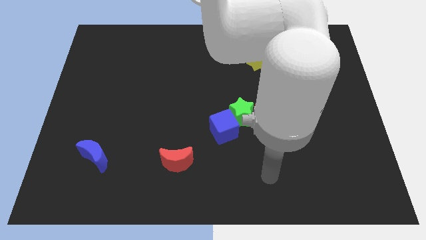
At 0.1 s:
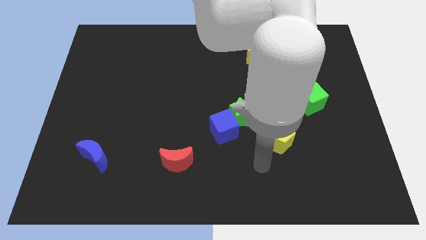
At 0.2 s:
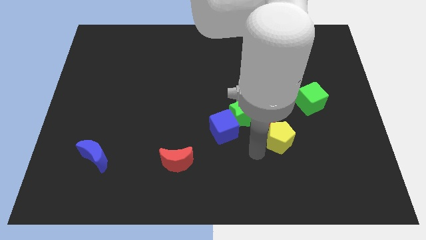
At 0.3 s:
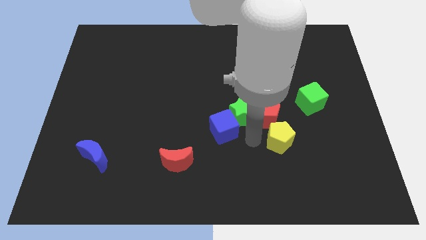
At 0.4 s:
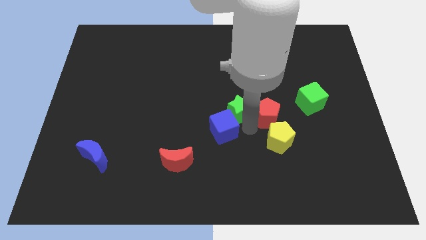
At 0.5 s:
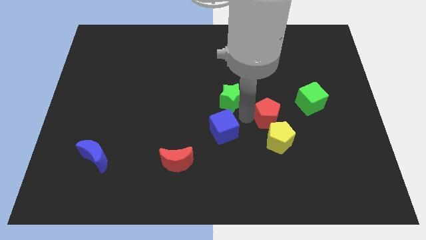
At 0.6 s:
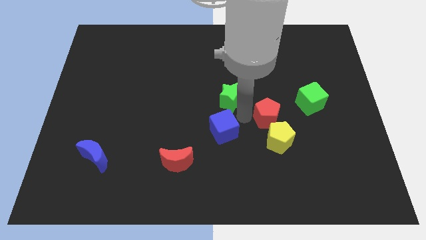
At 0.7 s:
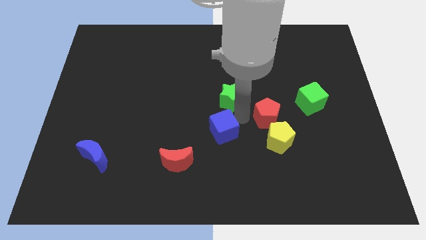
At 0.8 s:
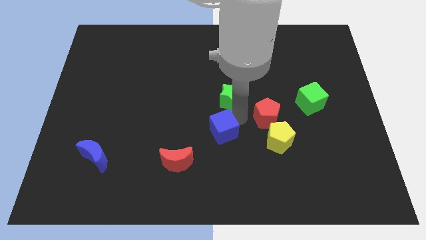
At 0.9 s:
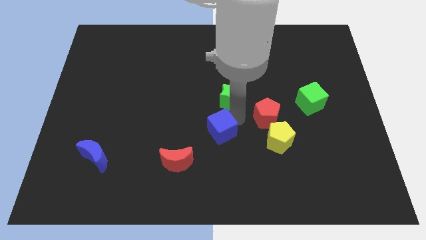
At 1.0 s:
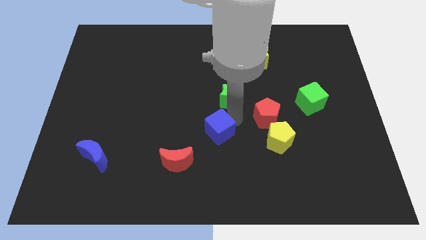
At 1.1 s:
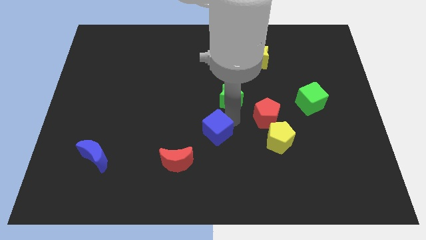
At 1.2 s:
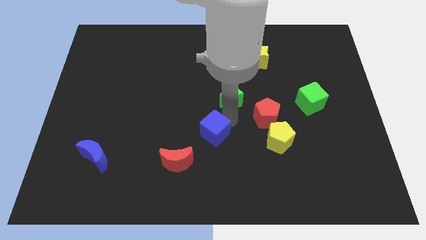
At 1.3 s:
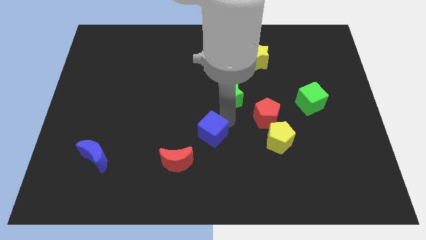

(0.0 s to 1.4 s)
pull the blue cube apart from the green star

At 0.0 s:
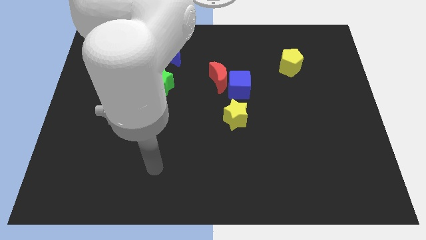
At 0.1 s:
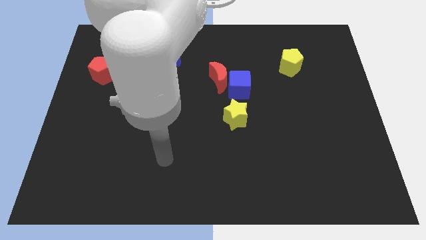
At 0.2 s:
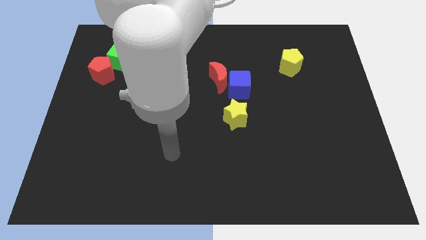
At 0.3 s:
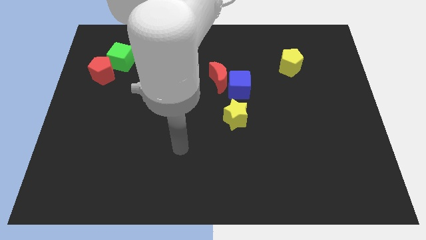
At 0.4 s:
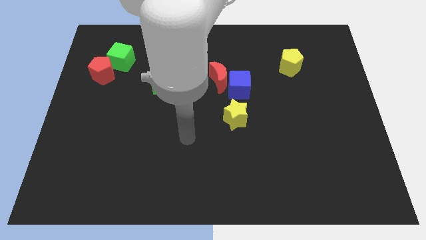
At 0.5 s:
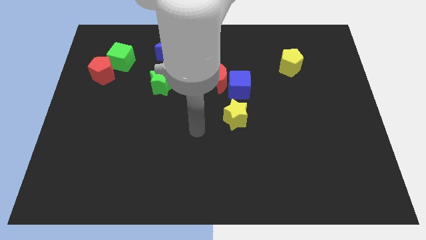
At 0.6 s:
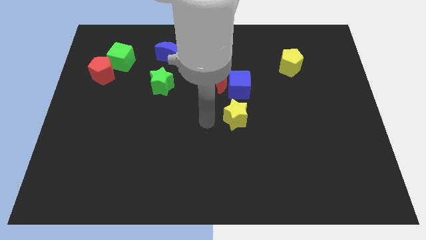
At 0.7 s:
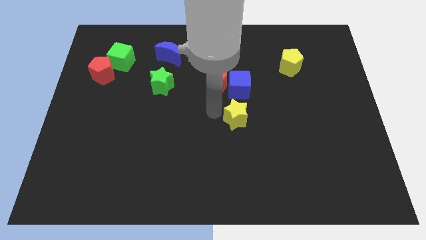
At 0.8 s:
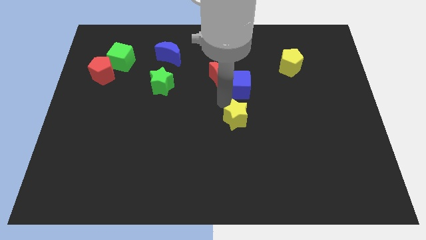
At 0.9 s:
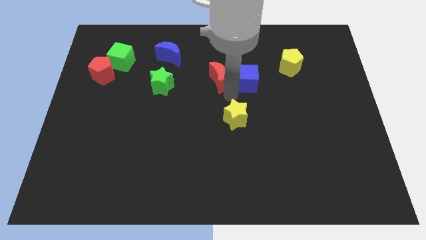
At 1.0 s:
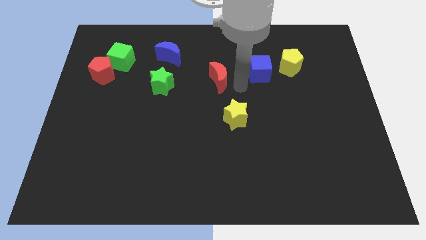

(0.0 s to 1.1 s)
pull the red moon apart from the blue cube

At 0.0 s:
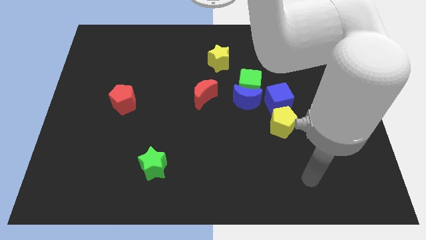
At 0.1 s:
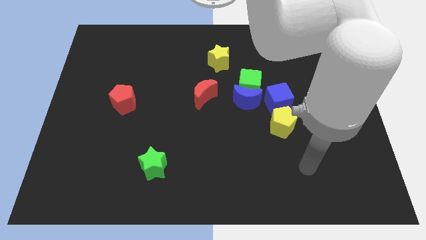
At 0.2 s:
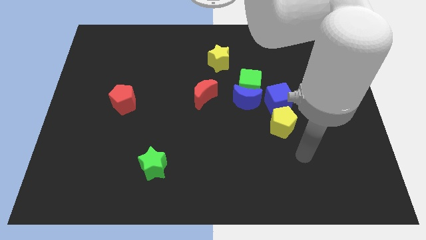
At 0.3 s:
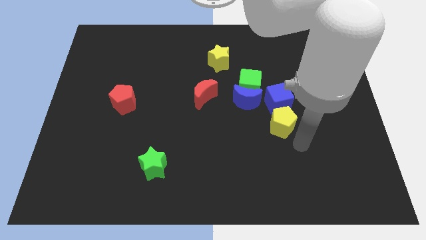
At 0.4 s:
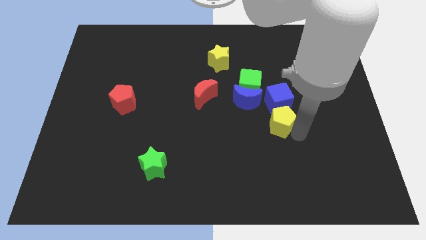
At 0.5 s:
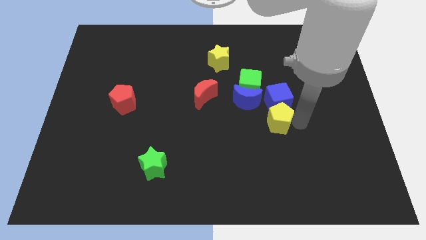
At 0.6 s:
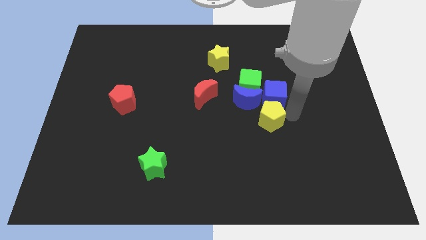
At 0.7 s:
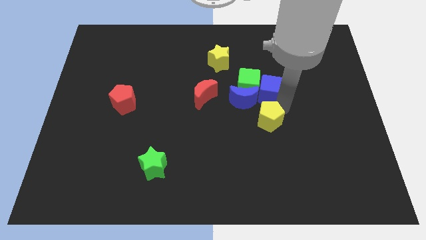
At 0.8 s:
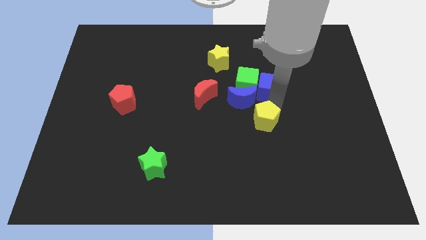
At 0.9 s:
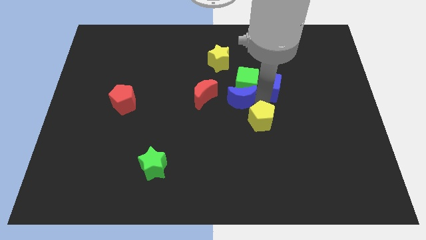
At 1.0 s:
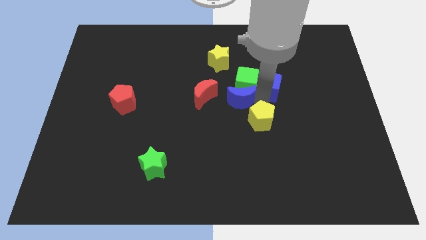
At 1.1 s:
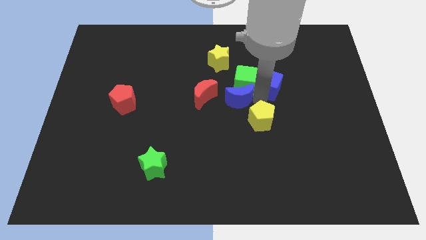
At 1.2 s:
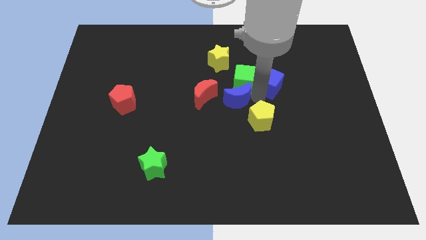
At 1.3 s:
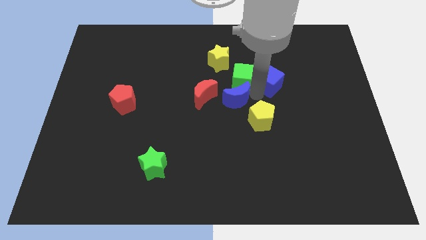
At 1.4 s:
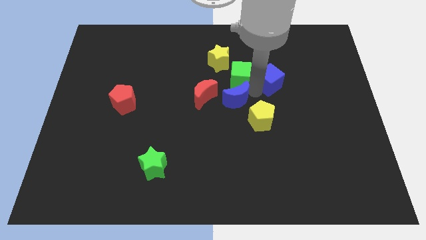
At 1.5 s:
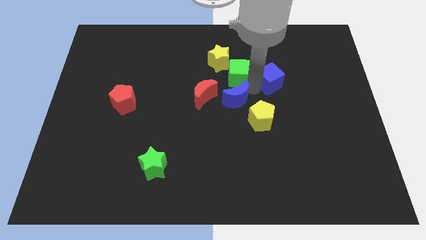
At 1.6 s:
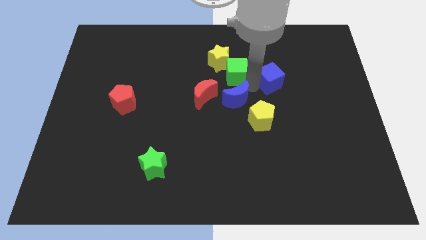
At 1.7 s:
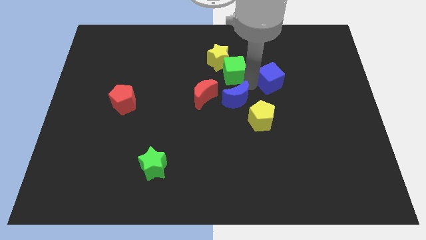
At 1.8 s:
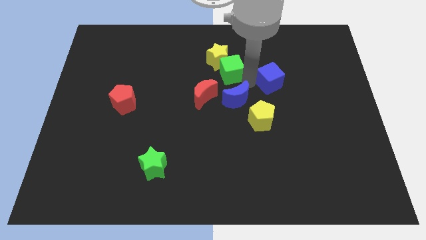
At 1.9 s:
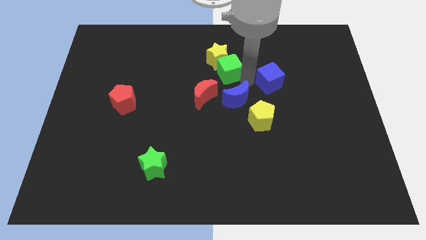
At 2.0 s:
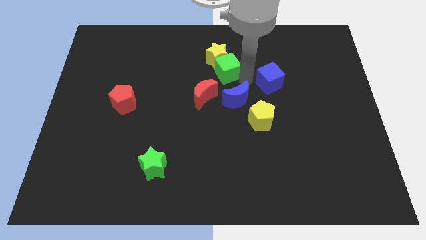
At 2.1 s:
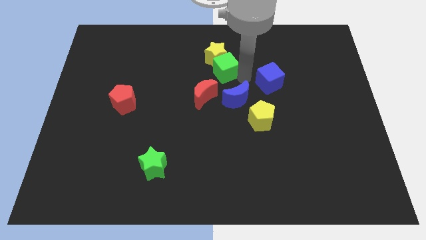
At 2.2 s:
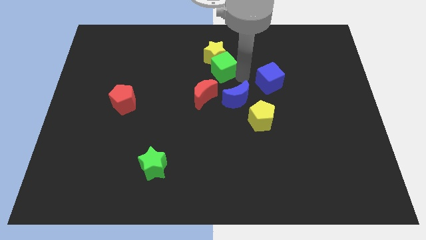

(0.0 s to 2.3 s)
pull the green cube apart from the blue moon and blue cube

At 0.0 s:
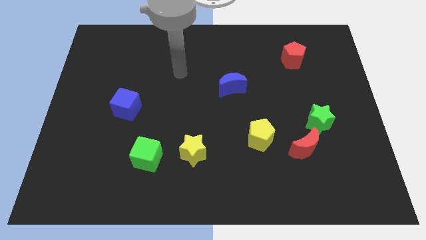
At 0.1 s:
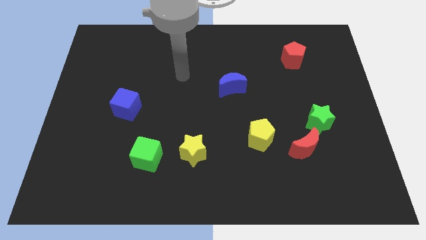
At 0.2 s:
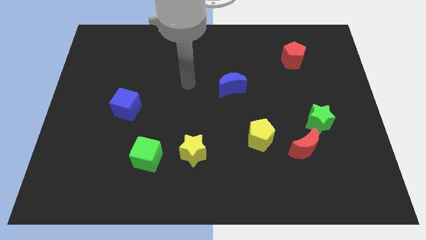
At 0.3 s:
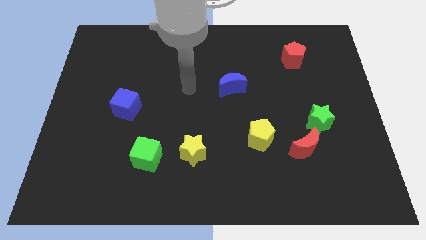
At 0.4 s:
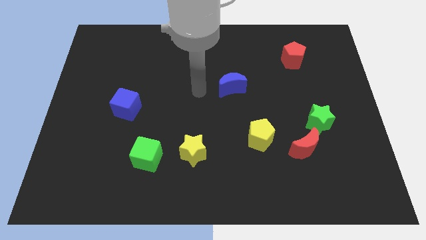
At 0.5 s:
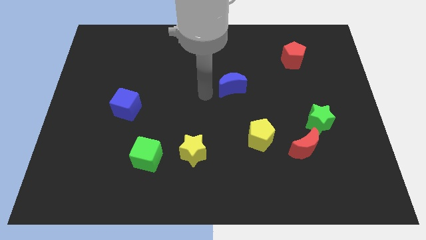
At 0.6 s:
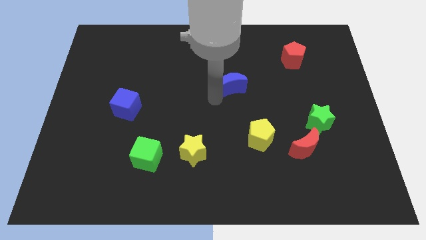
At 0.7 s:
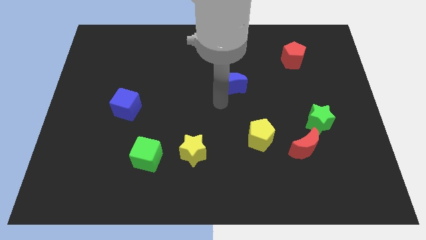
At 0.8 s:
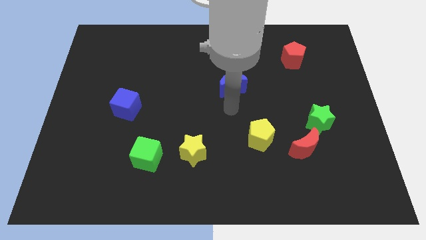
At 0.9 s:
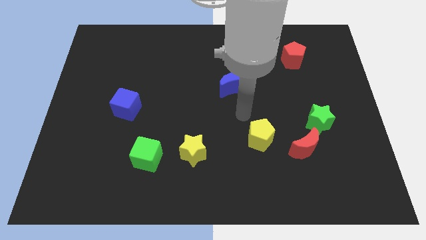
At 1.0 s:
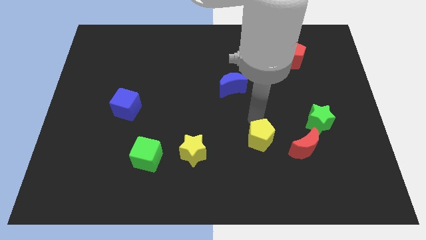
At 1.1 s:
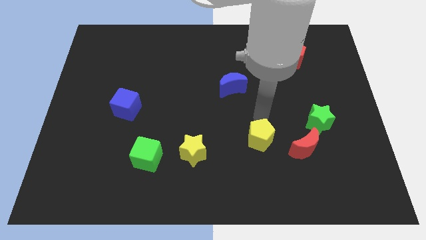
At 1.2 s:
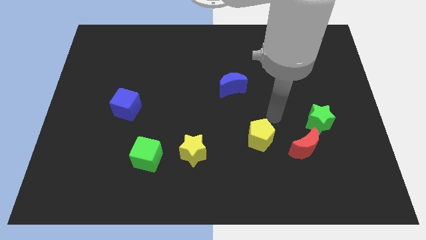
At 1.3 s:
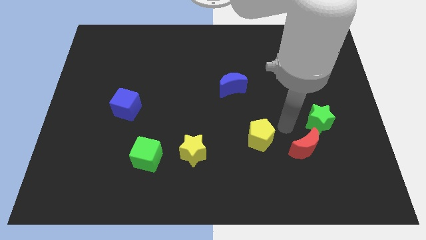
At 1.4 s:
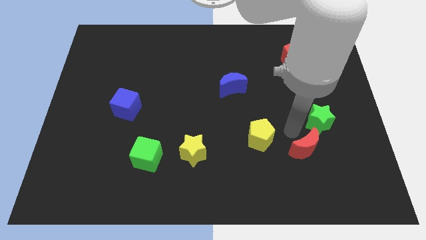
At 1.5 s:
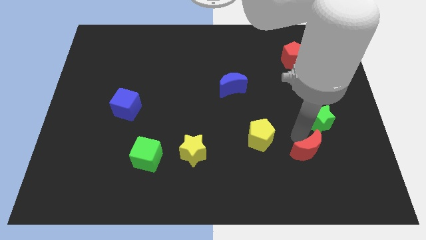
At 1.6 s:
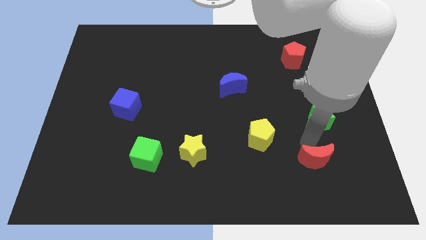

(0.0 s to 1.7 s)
pull the green star apart from the red moon

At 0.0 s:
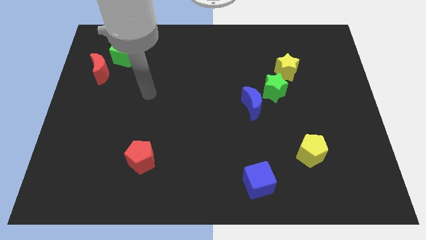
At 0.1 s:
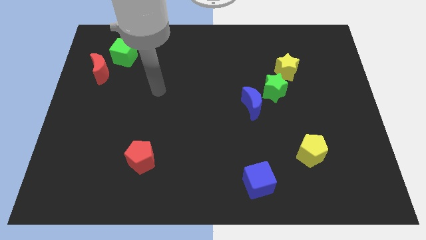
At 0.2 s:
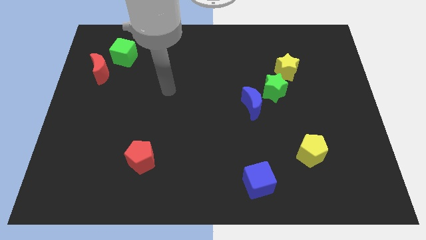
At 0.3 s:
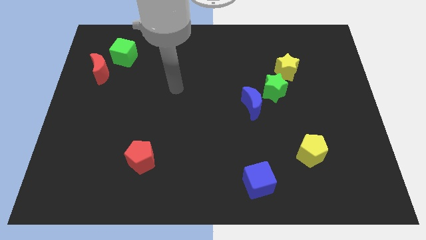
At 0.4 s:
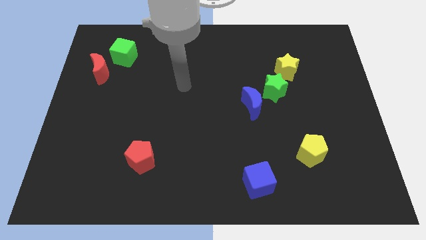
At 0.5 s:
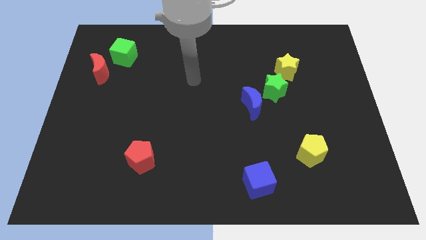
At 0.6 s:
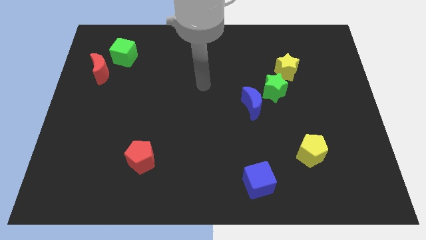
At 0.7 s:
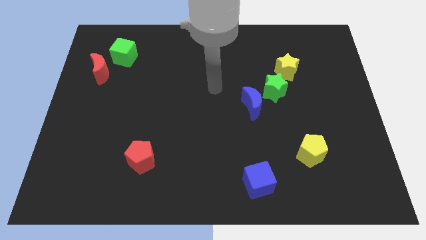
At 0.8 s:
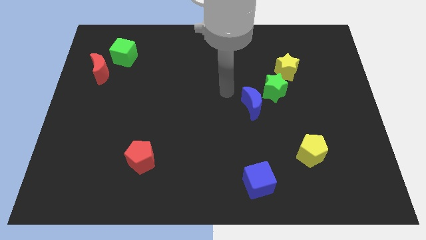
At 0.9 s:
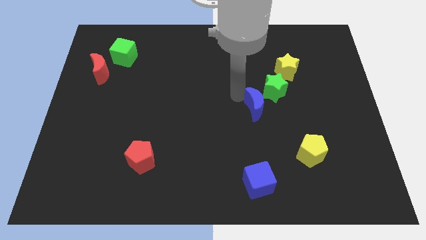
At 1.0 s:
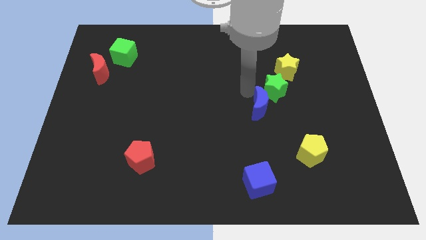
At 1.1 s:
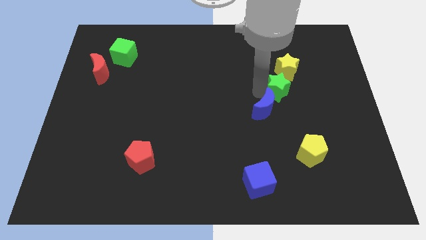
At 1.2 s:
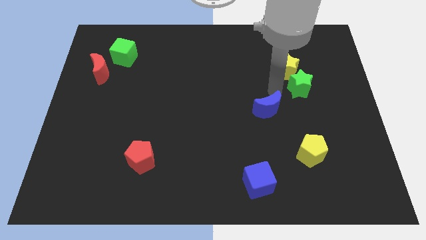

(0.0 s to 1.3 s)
move the blue moon away from the green star

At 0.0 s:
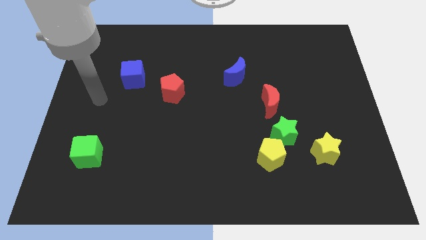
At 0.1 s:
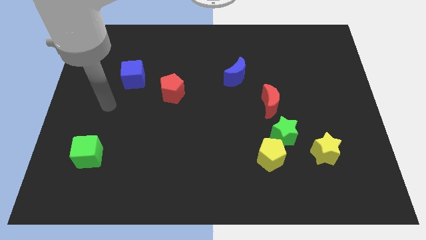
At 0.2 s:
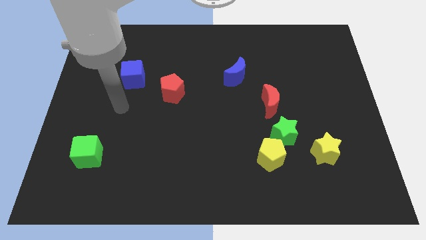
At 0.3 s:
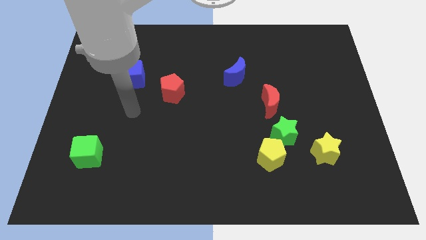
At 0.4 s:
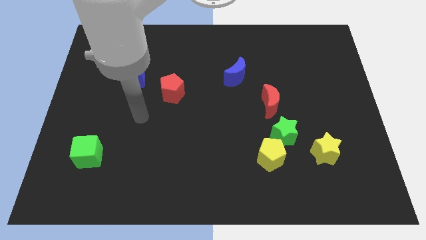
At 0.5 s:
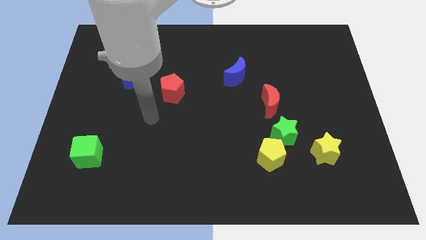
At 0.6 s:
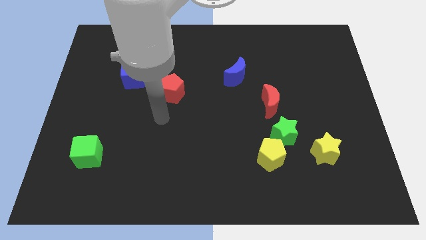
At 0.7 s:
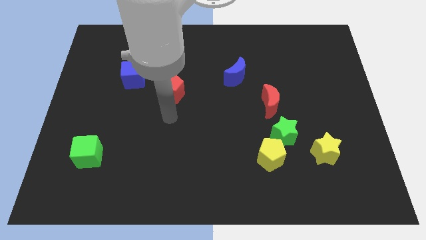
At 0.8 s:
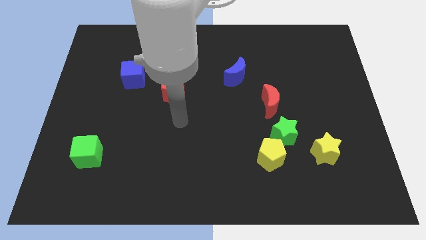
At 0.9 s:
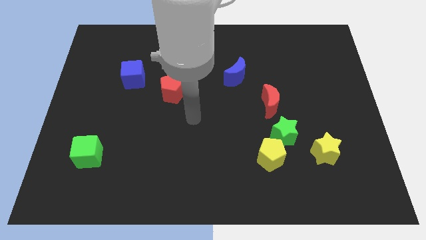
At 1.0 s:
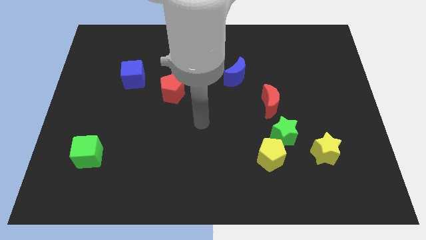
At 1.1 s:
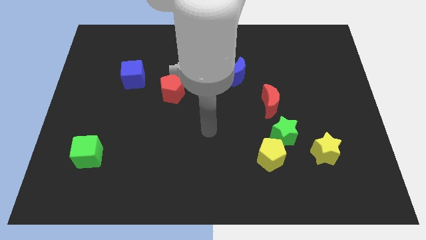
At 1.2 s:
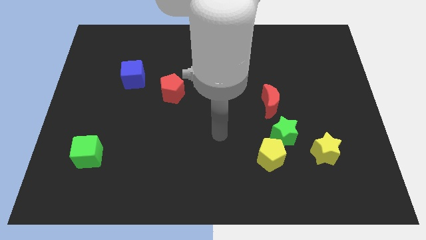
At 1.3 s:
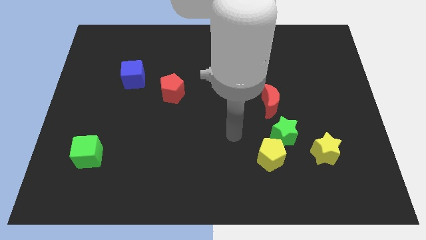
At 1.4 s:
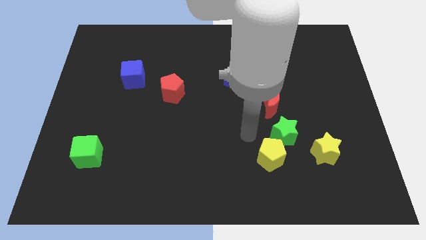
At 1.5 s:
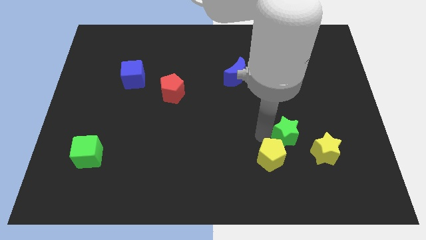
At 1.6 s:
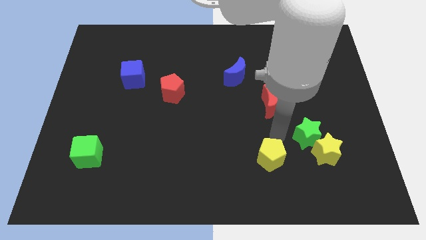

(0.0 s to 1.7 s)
separate the yellow pentagon from the green star
